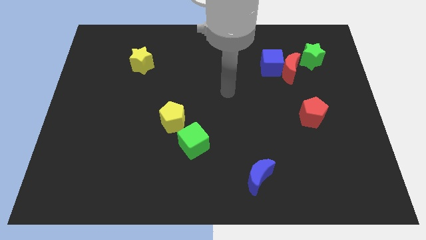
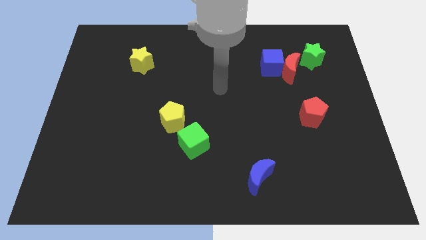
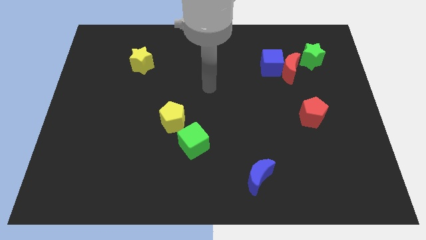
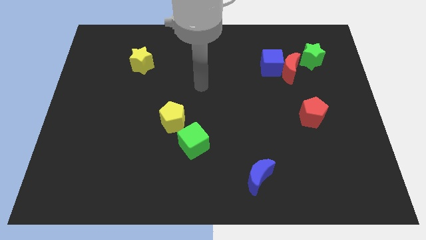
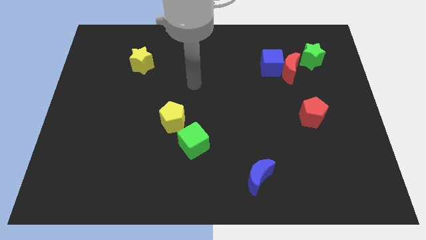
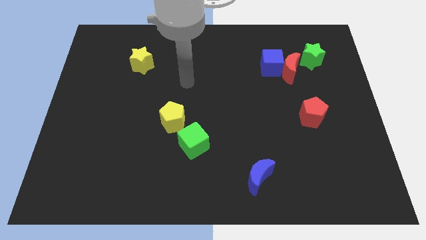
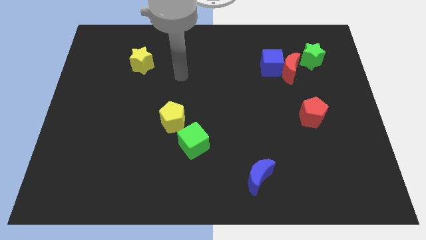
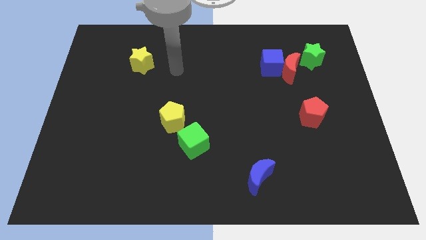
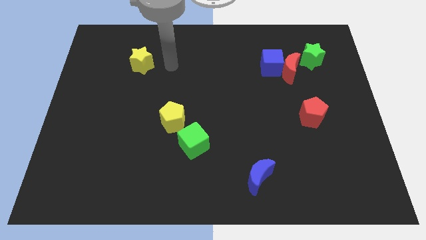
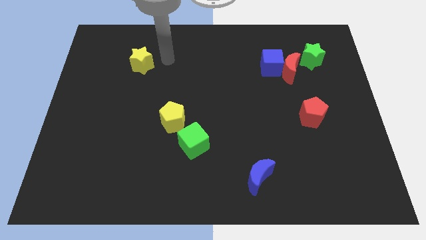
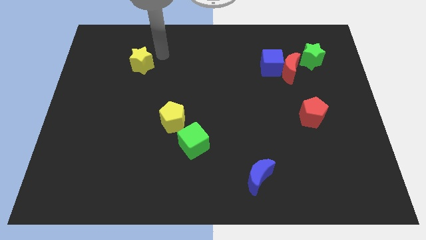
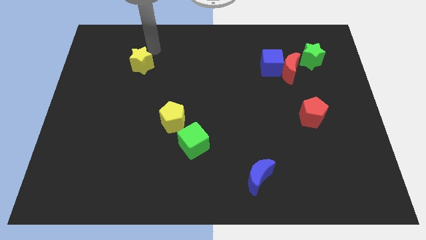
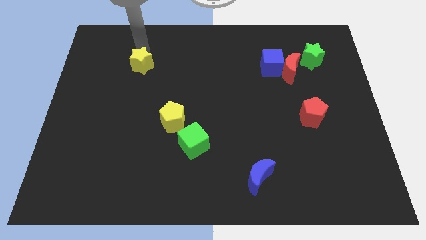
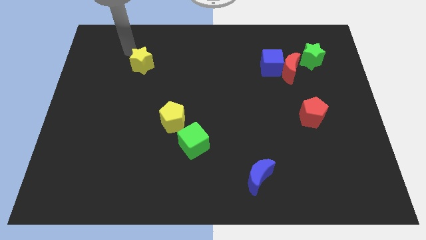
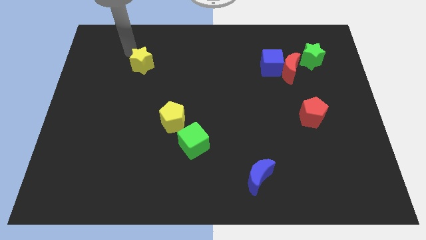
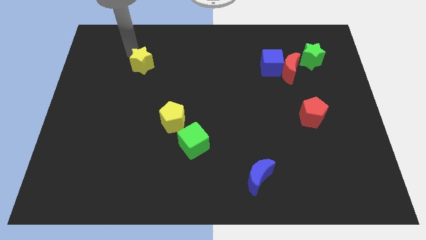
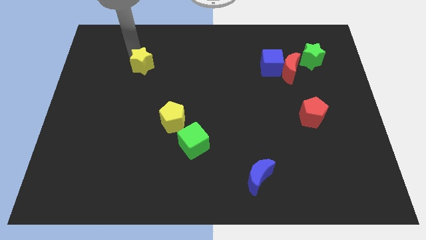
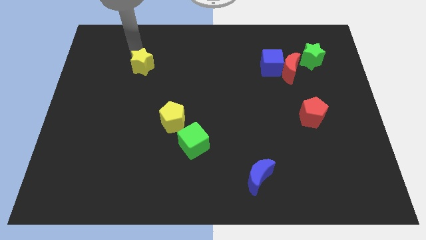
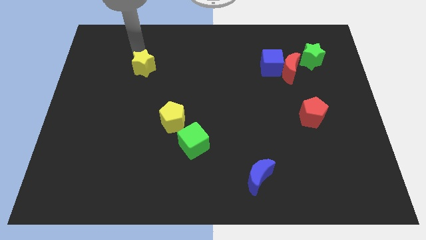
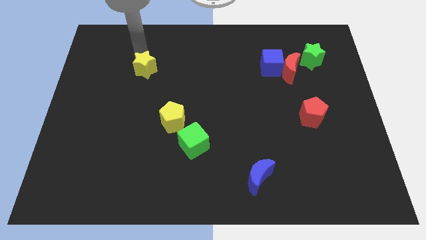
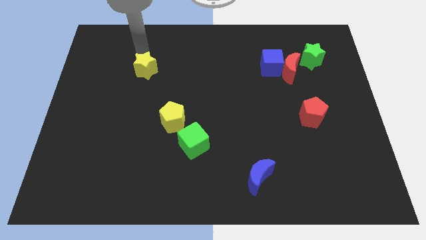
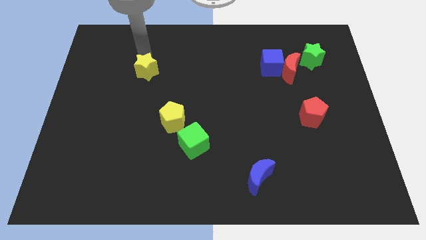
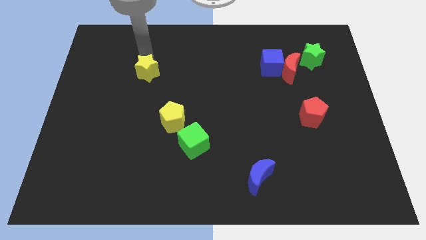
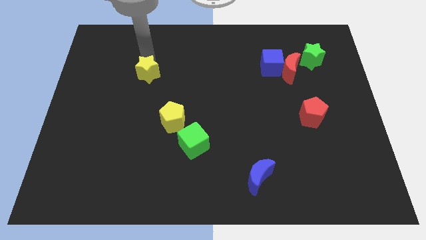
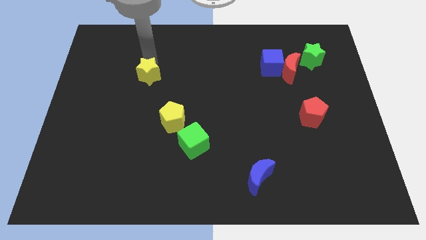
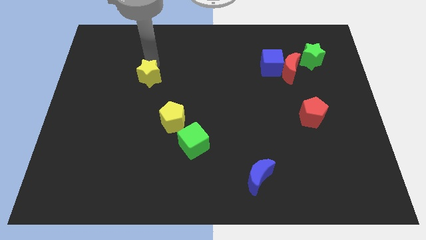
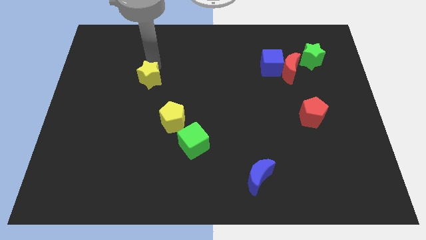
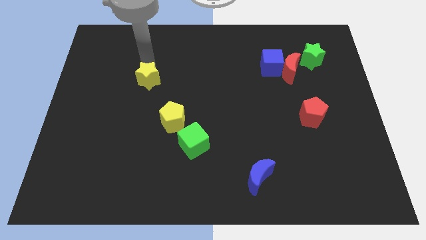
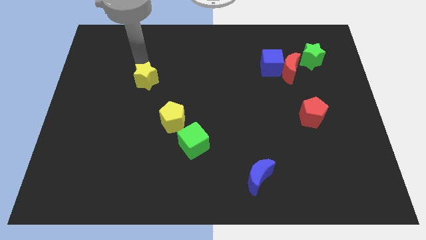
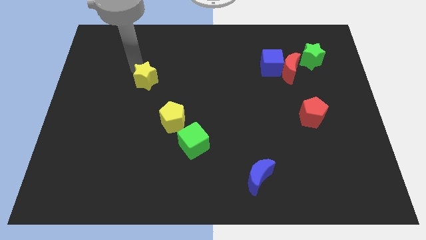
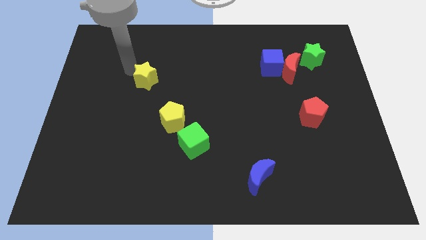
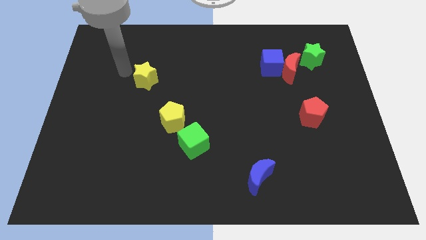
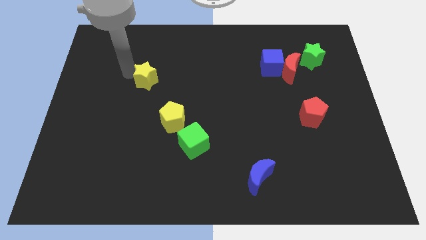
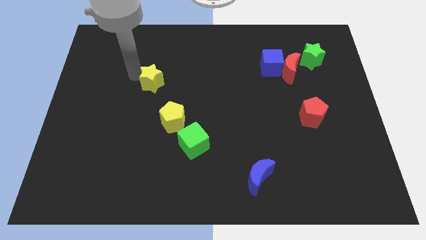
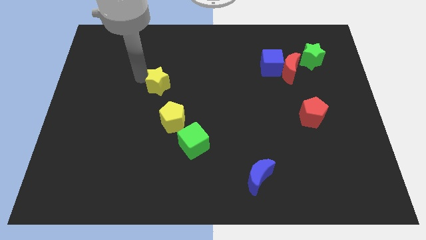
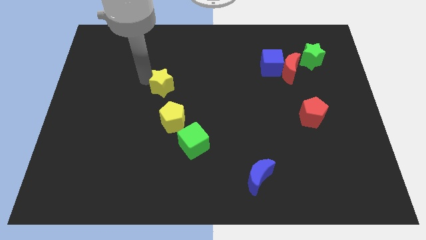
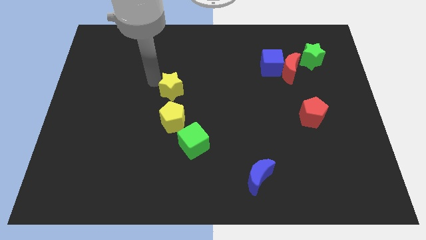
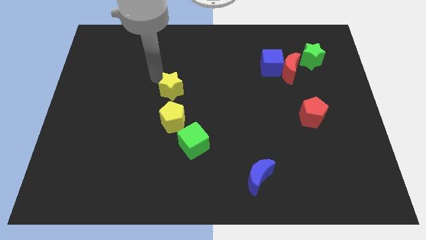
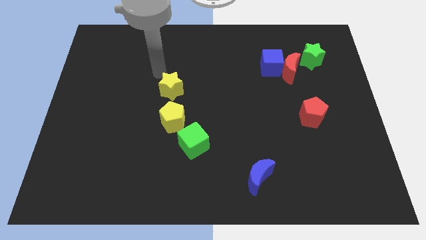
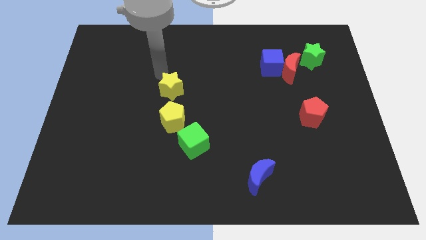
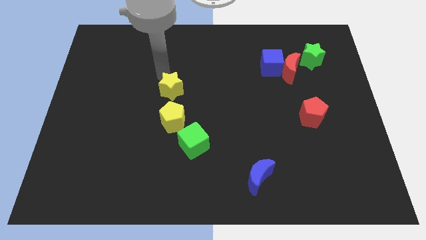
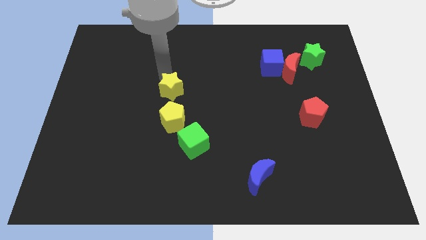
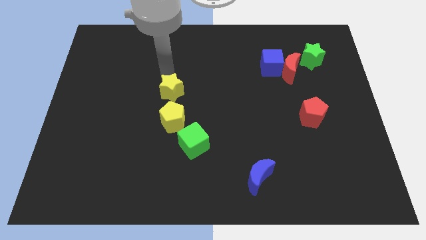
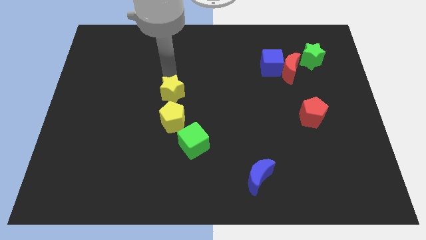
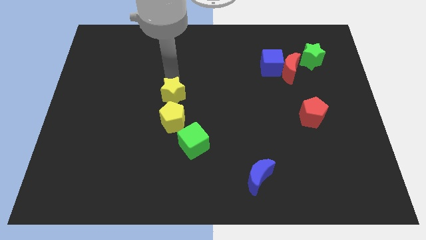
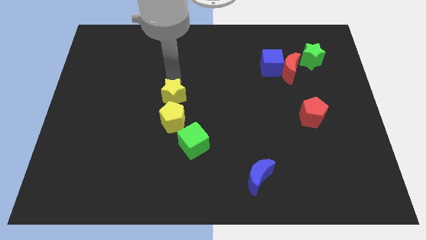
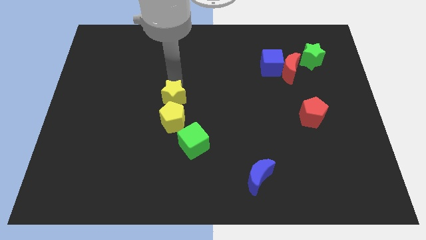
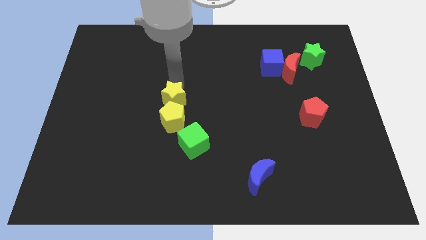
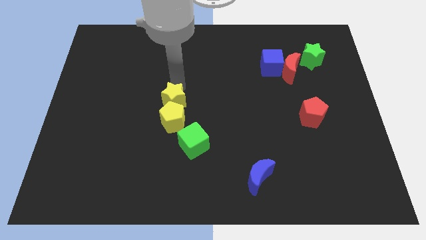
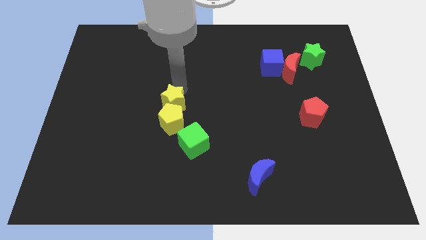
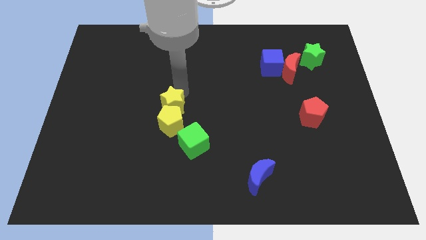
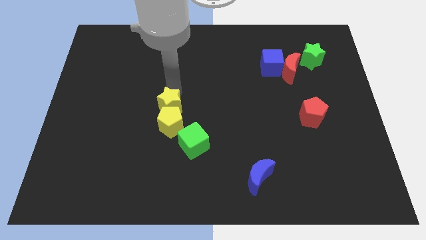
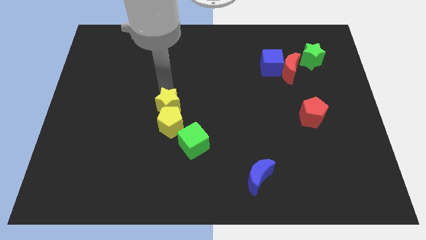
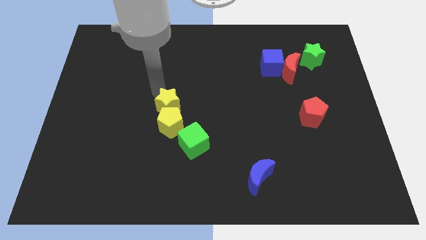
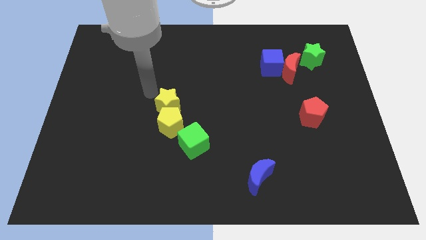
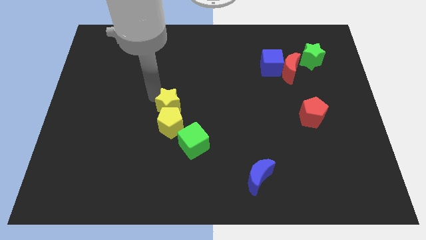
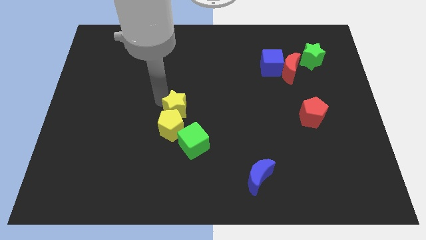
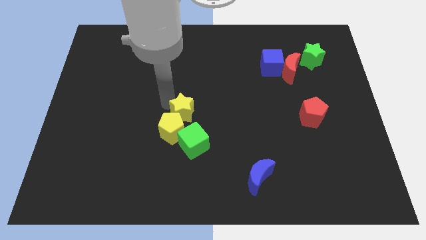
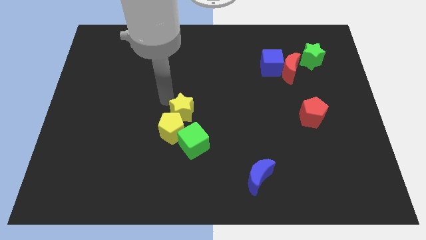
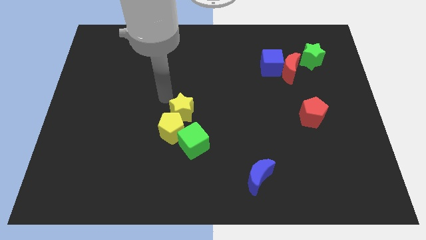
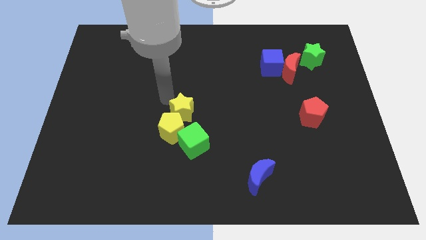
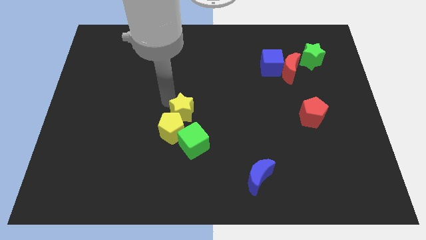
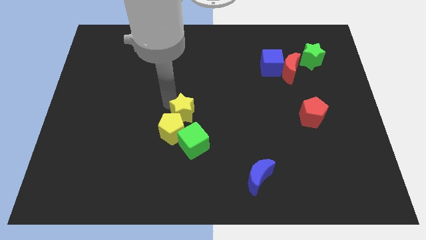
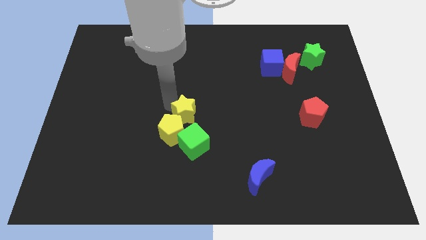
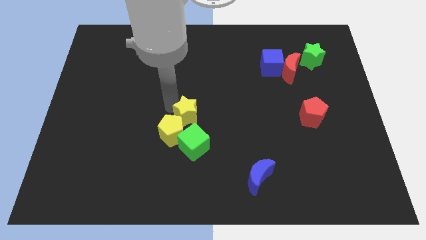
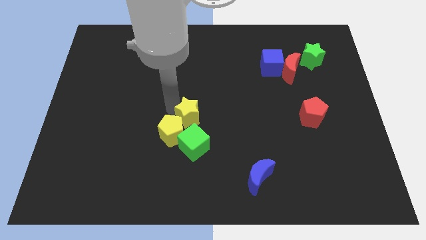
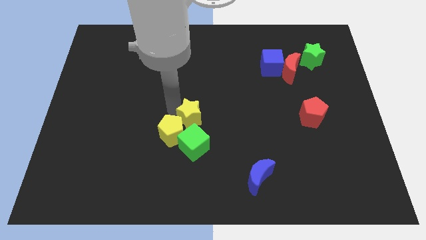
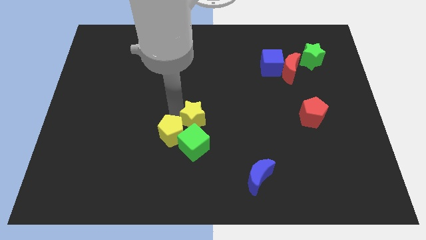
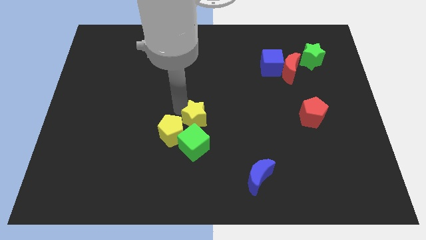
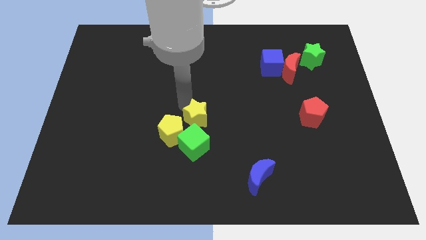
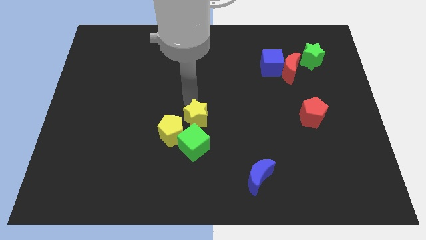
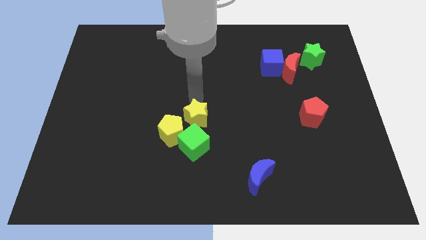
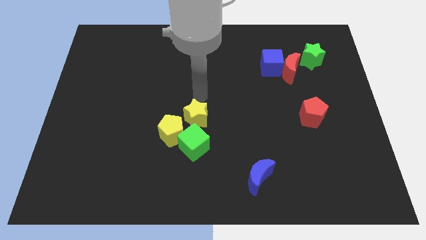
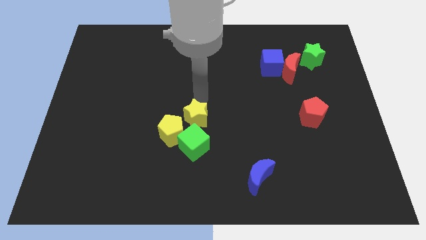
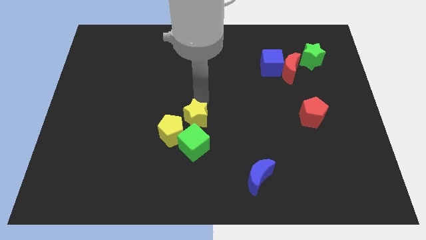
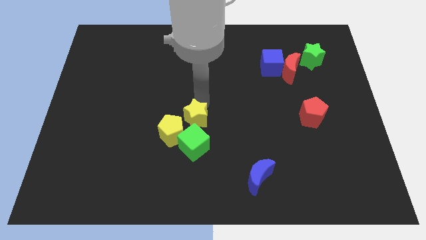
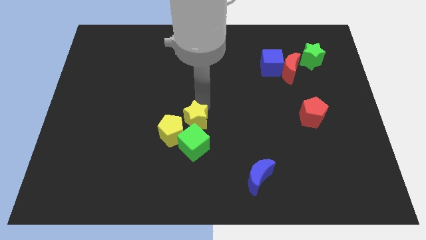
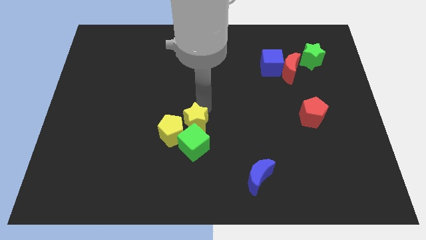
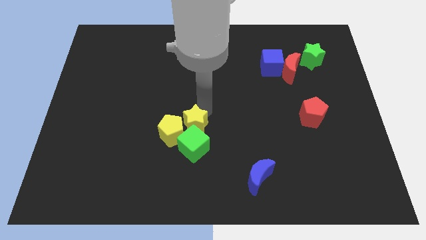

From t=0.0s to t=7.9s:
slide the yellow star towards the green cube
